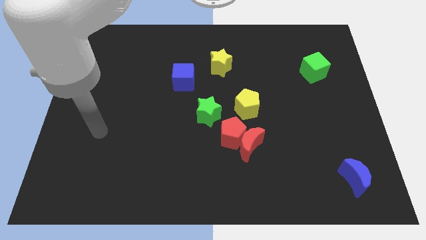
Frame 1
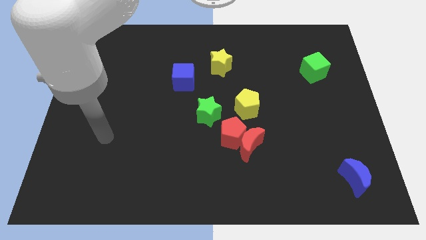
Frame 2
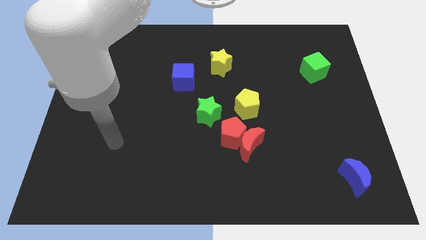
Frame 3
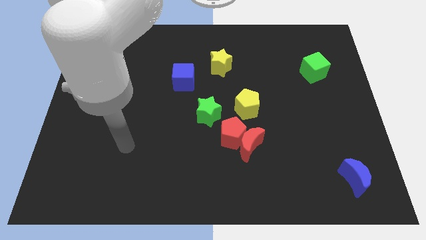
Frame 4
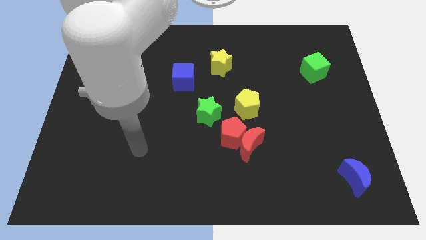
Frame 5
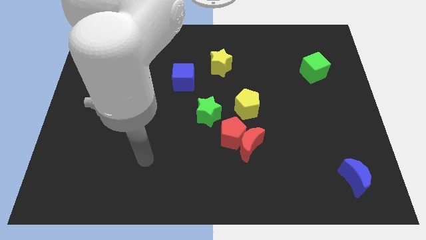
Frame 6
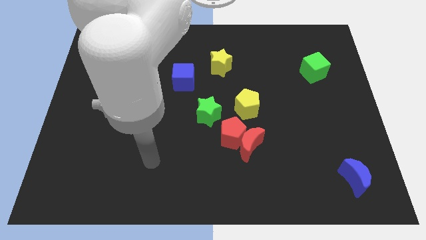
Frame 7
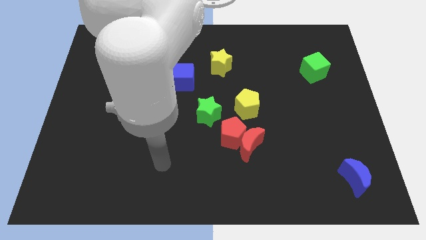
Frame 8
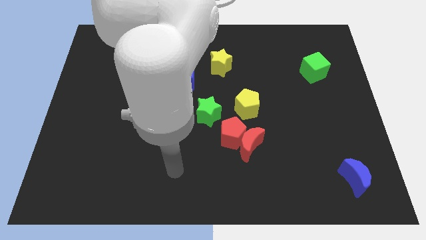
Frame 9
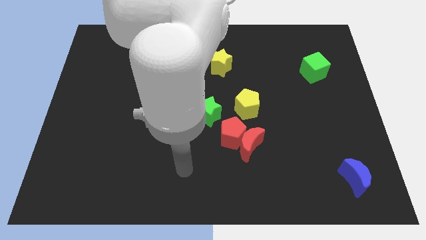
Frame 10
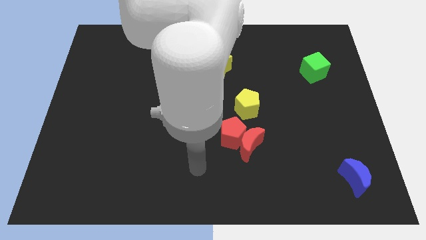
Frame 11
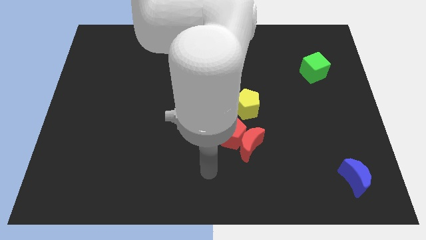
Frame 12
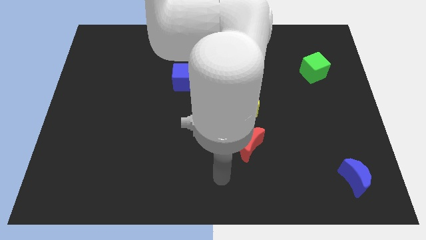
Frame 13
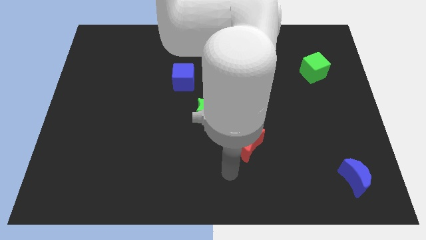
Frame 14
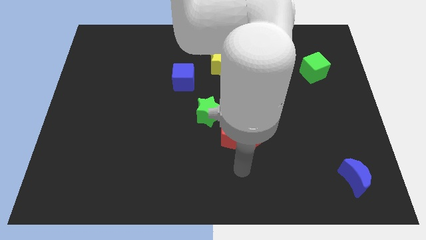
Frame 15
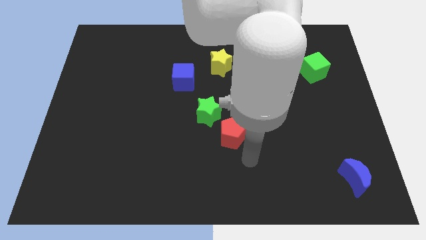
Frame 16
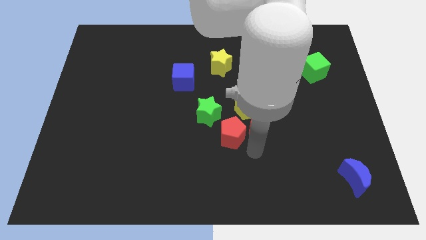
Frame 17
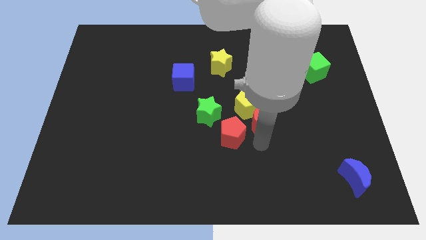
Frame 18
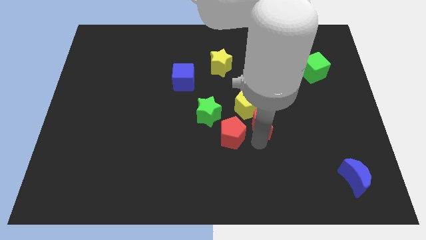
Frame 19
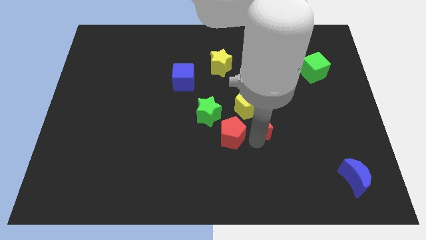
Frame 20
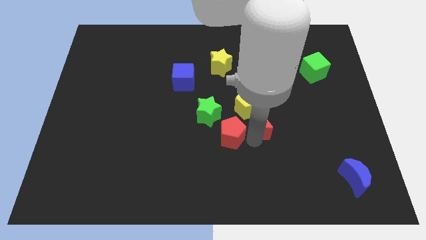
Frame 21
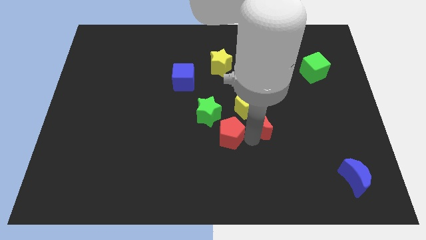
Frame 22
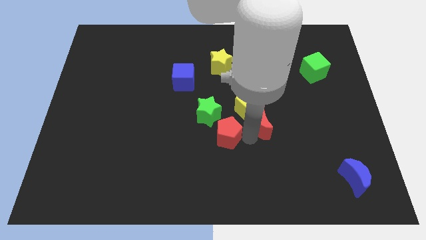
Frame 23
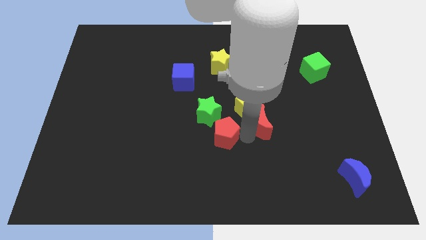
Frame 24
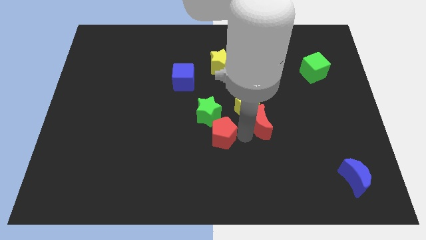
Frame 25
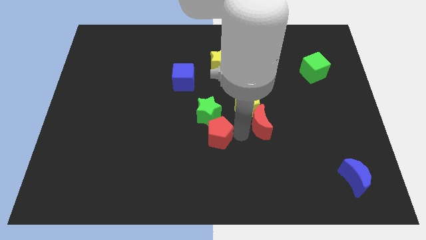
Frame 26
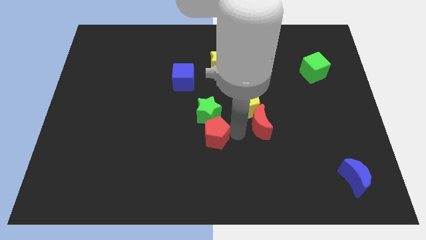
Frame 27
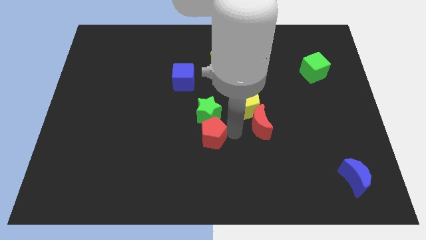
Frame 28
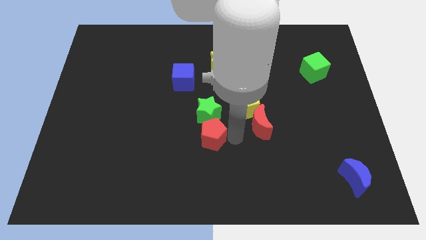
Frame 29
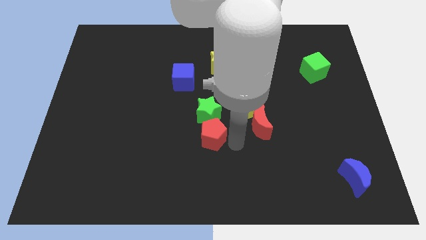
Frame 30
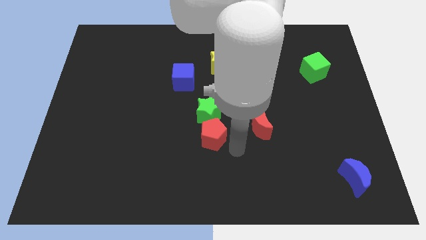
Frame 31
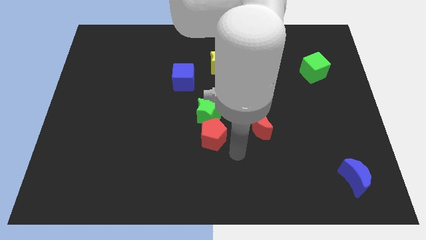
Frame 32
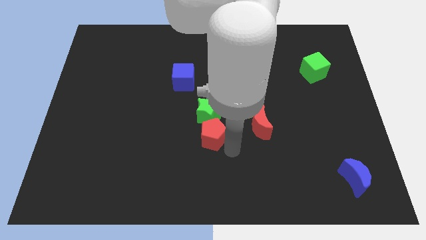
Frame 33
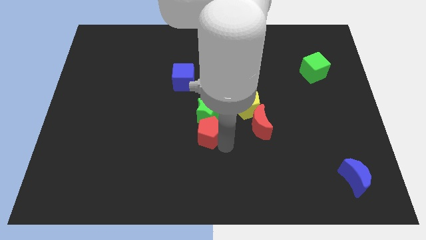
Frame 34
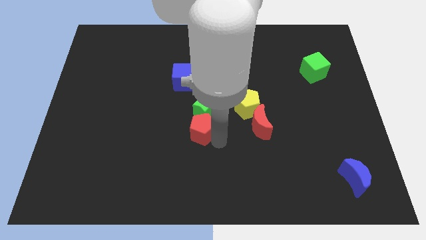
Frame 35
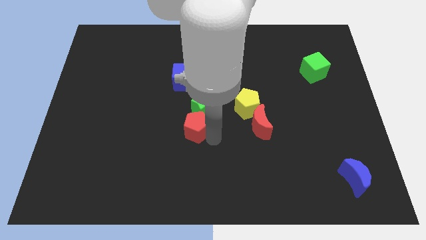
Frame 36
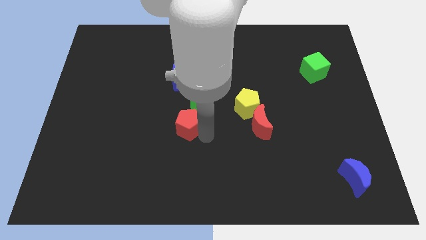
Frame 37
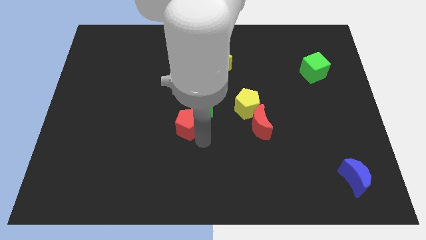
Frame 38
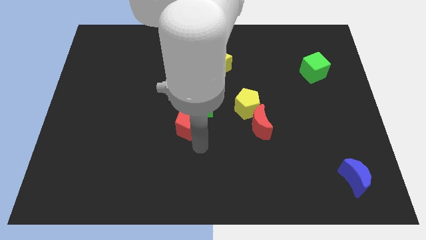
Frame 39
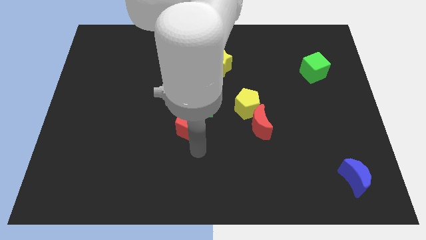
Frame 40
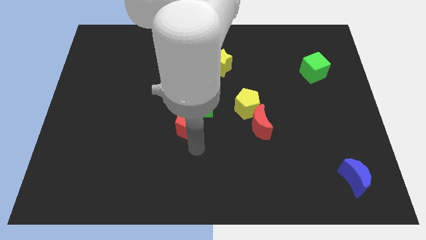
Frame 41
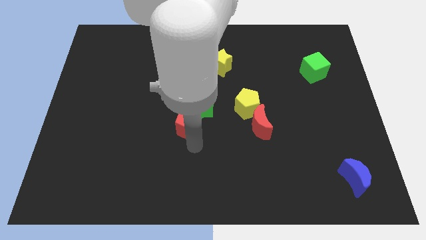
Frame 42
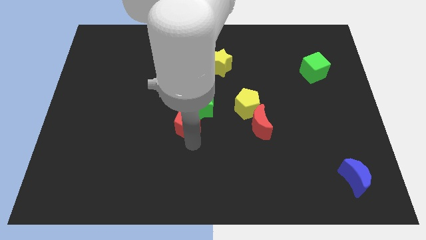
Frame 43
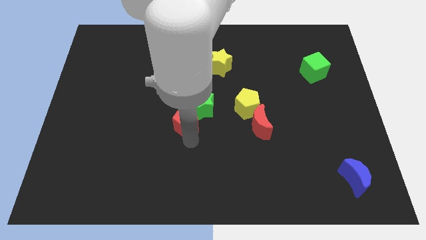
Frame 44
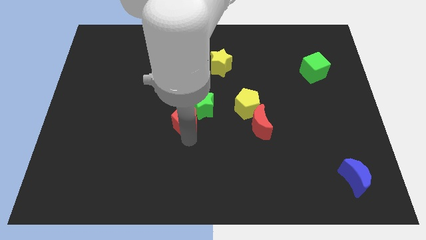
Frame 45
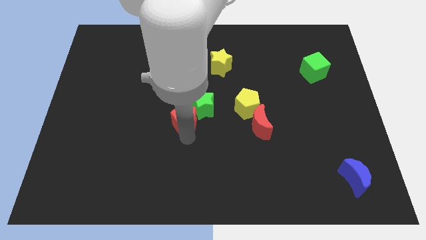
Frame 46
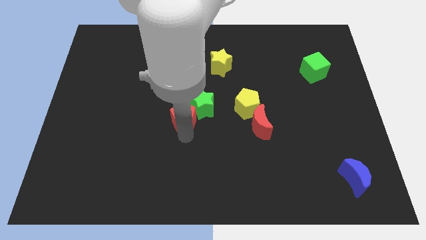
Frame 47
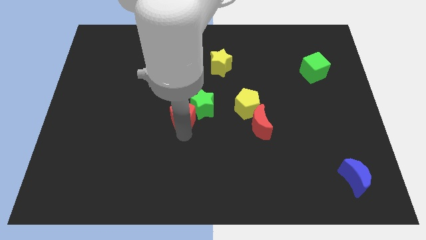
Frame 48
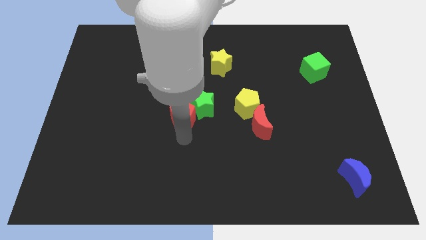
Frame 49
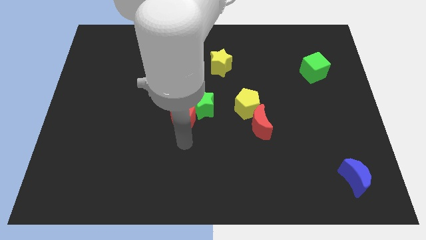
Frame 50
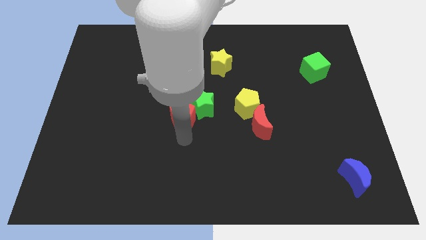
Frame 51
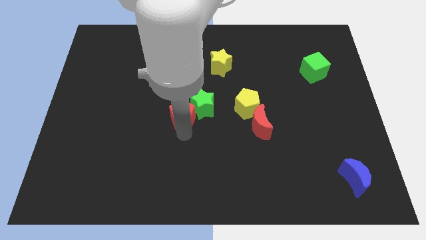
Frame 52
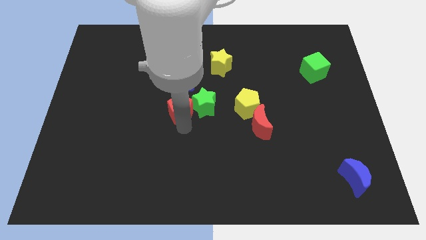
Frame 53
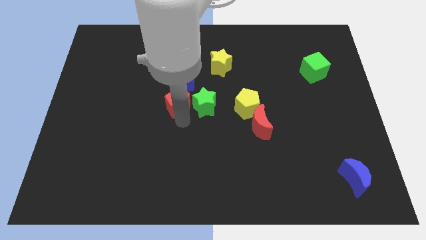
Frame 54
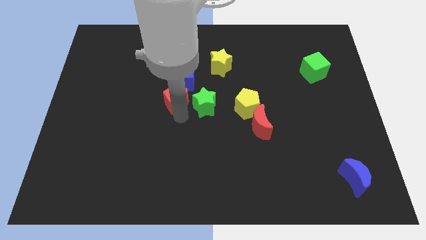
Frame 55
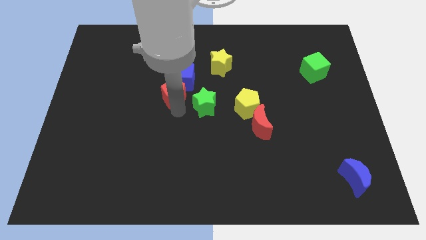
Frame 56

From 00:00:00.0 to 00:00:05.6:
push the red pentagon next to the blue cube

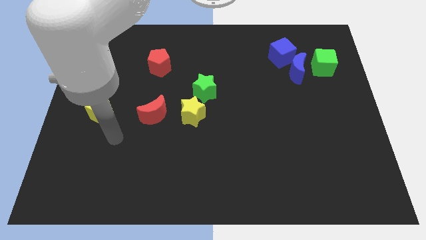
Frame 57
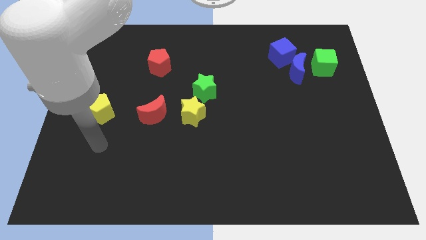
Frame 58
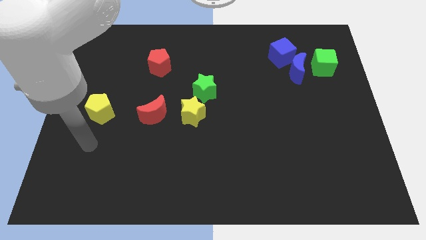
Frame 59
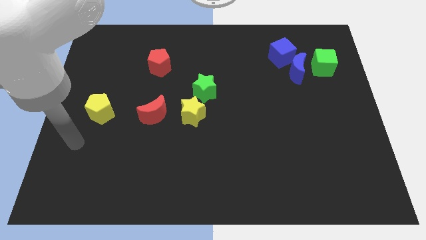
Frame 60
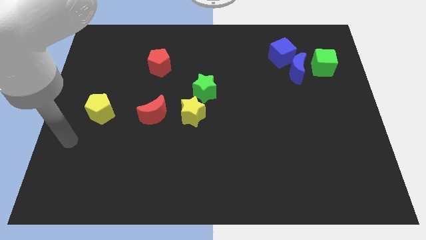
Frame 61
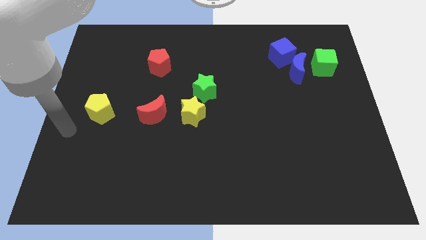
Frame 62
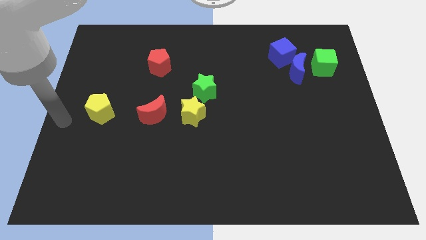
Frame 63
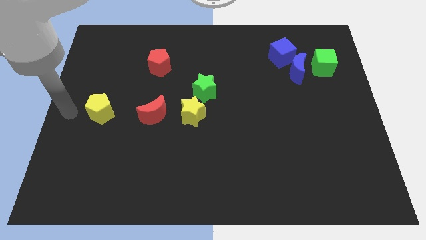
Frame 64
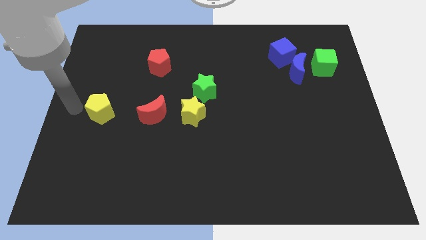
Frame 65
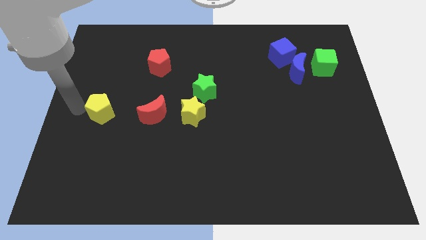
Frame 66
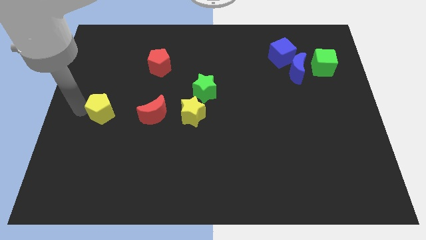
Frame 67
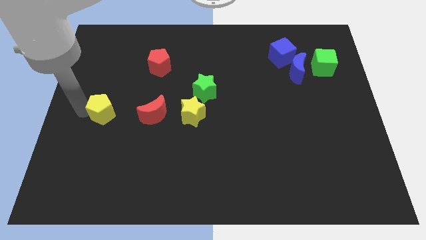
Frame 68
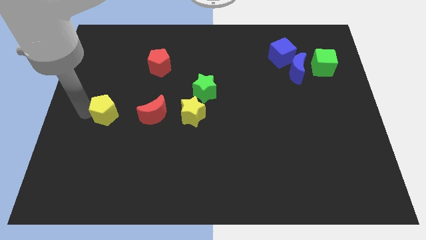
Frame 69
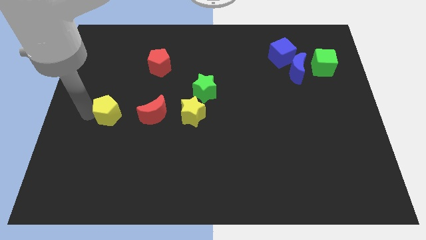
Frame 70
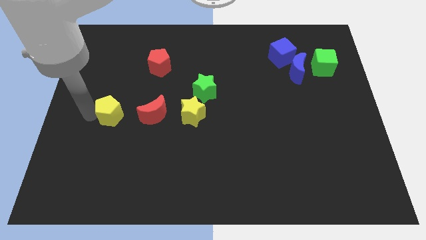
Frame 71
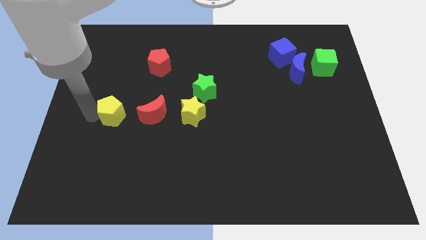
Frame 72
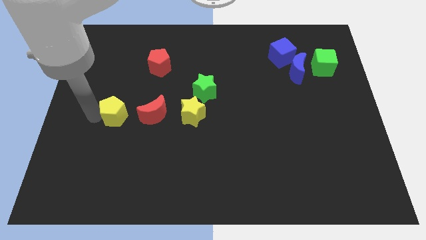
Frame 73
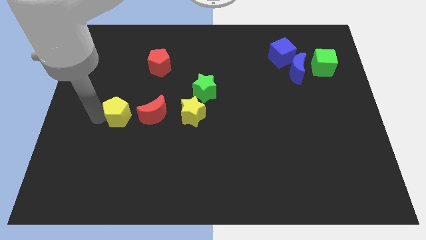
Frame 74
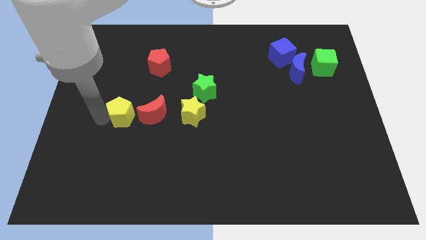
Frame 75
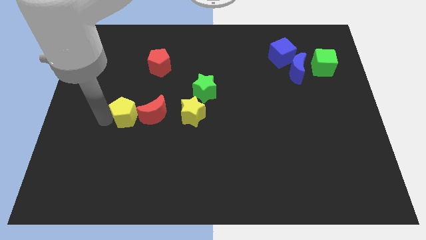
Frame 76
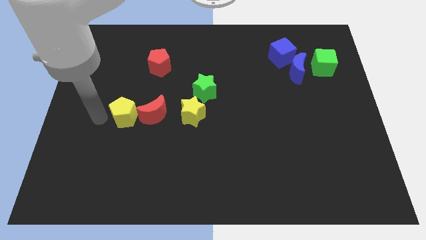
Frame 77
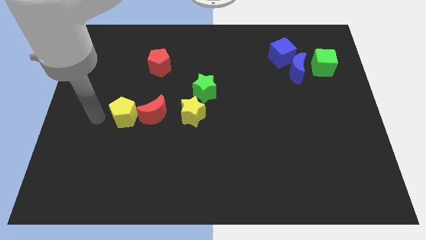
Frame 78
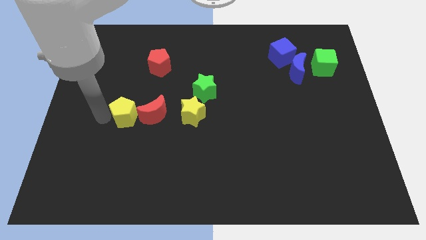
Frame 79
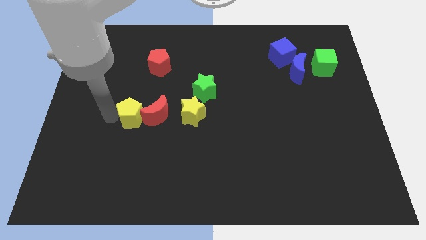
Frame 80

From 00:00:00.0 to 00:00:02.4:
push the yellow pentagon towards the red moon
